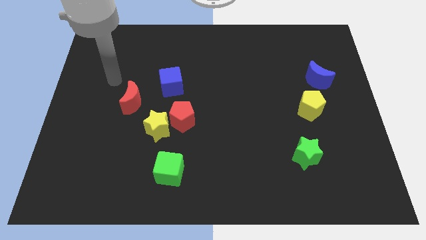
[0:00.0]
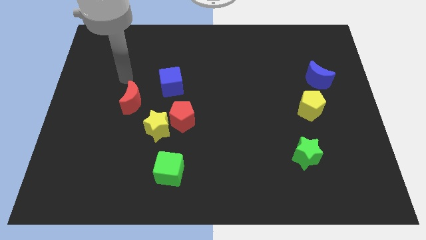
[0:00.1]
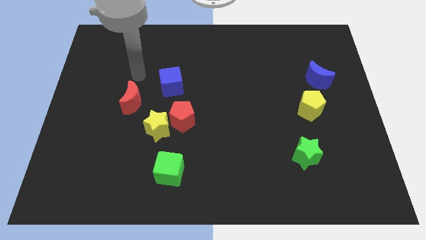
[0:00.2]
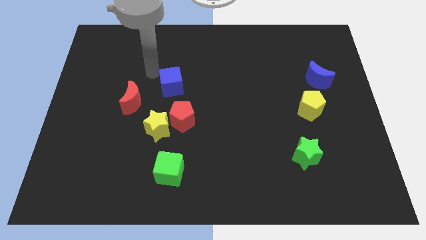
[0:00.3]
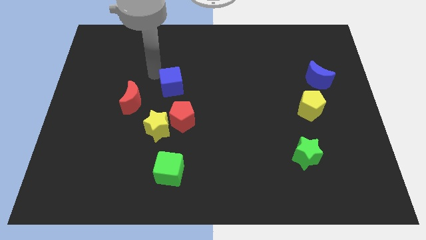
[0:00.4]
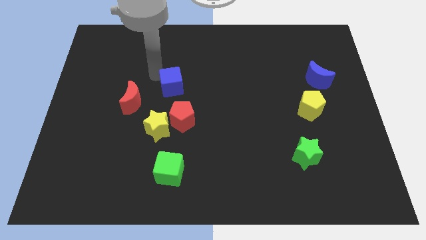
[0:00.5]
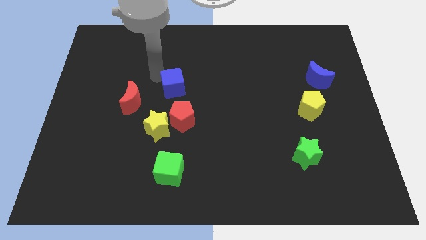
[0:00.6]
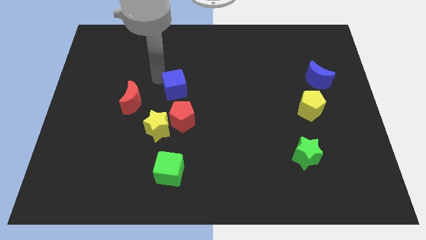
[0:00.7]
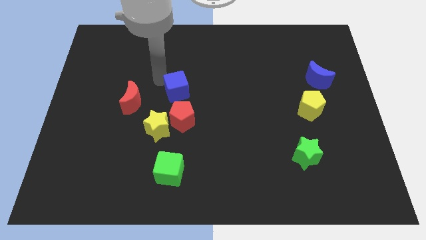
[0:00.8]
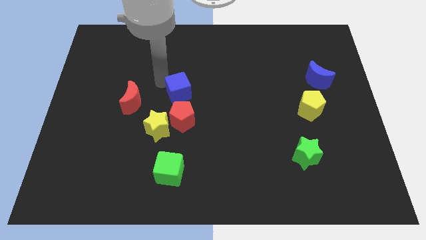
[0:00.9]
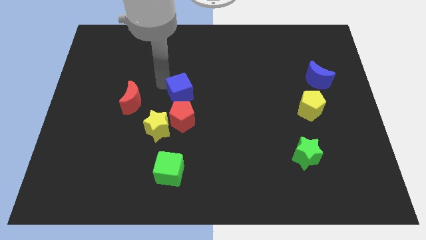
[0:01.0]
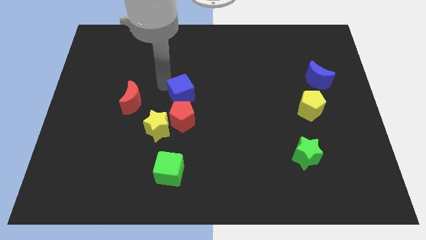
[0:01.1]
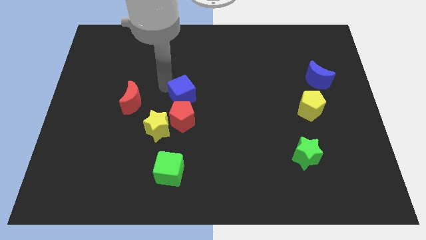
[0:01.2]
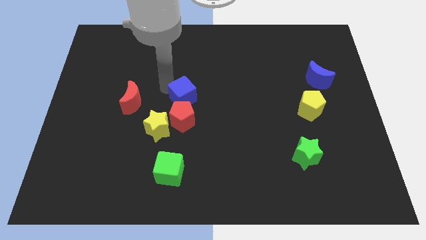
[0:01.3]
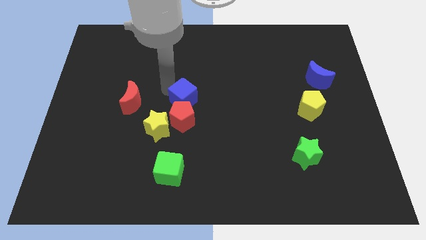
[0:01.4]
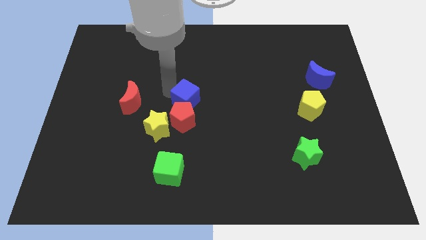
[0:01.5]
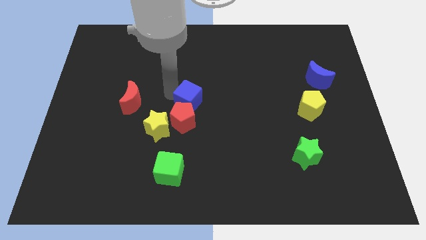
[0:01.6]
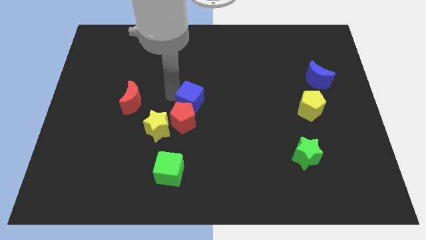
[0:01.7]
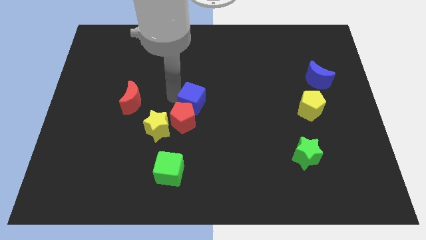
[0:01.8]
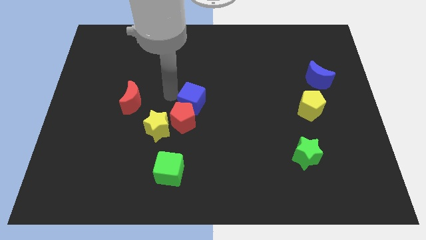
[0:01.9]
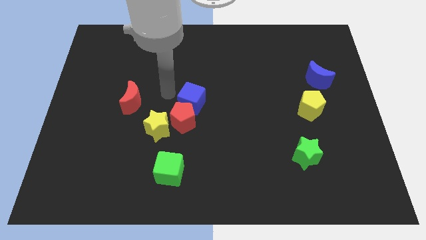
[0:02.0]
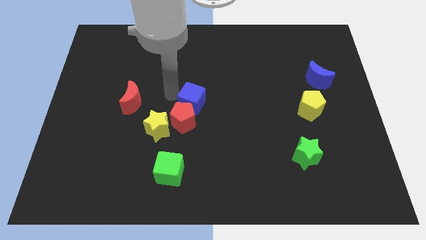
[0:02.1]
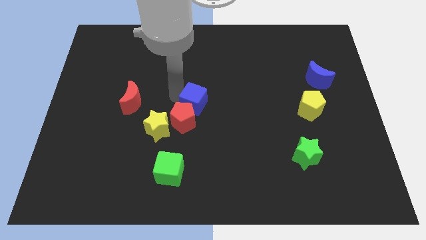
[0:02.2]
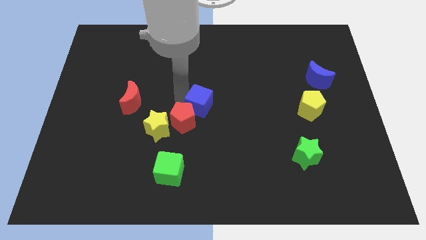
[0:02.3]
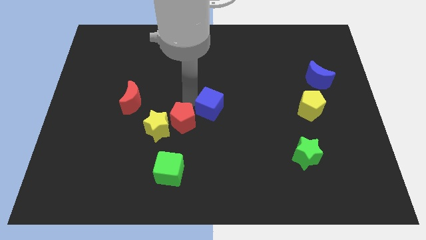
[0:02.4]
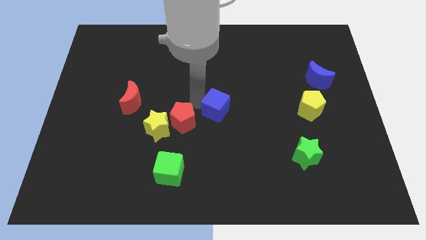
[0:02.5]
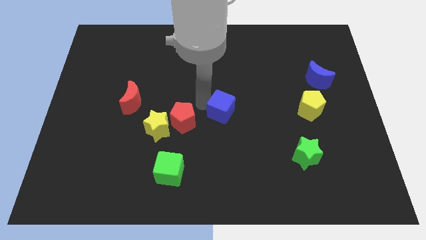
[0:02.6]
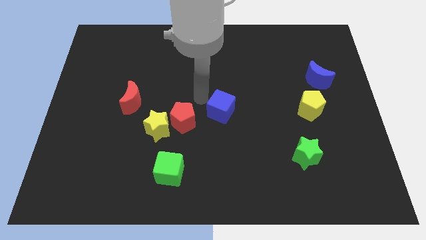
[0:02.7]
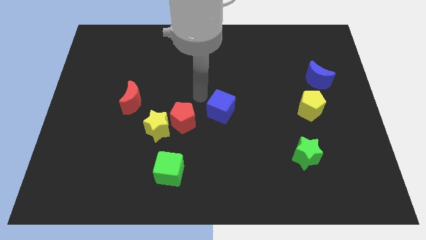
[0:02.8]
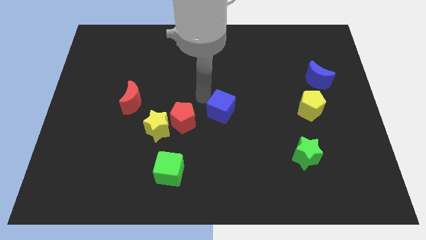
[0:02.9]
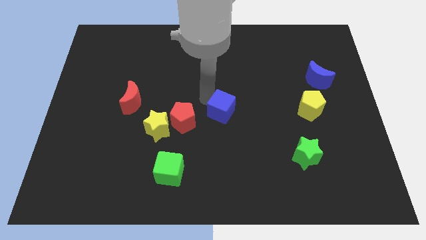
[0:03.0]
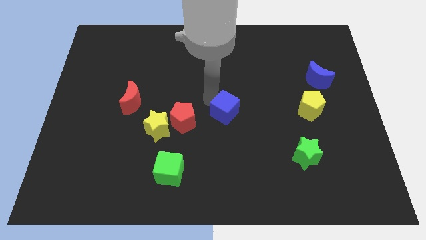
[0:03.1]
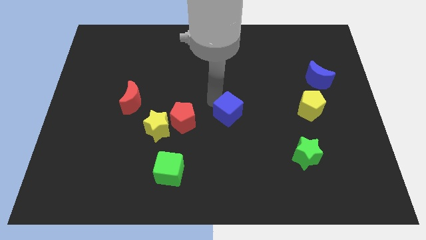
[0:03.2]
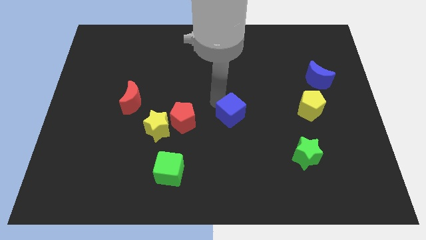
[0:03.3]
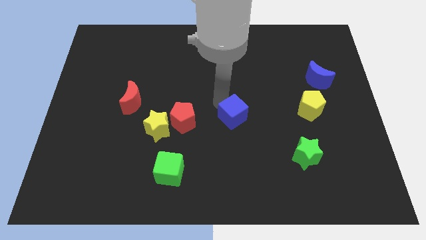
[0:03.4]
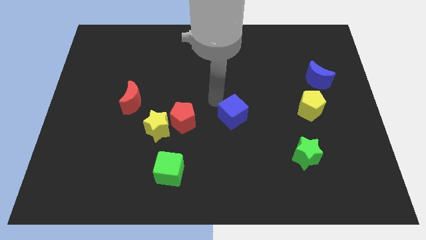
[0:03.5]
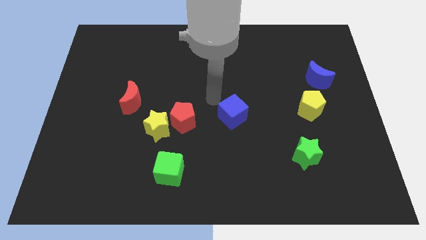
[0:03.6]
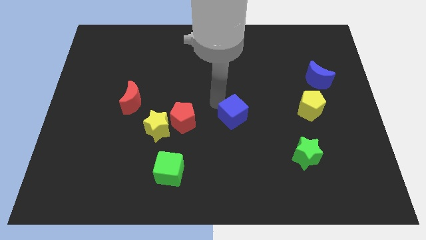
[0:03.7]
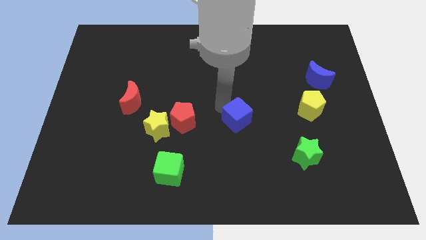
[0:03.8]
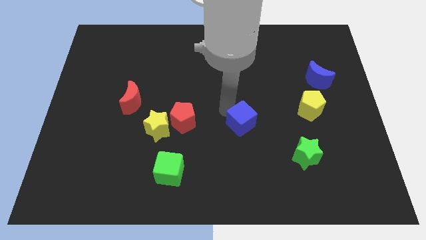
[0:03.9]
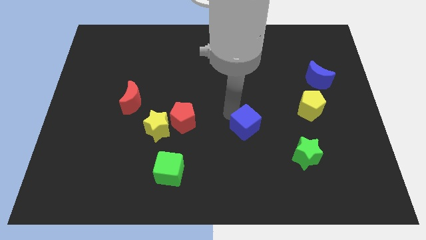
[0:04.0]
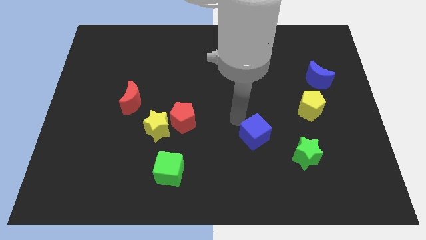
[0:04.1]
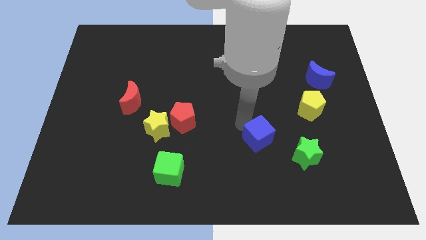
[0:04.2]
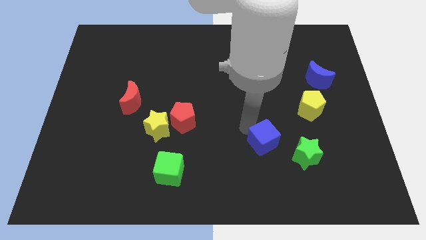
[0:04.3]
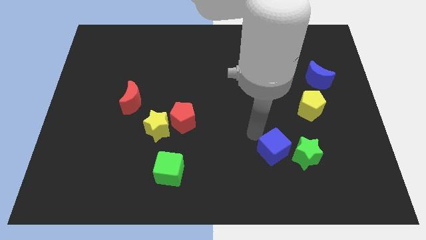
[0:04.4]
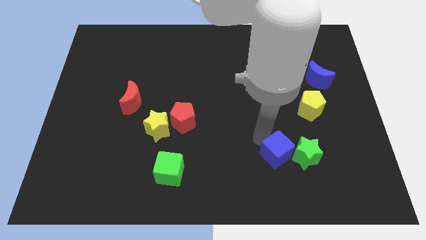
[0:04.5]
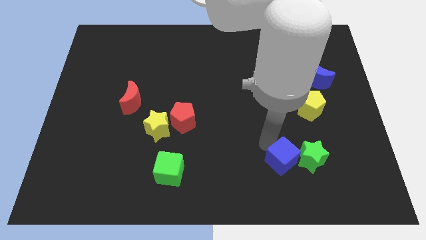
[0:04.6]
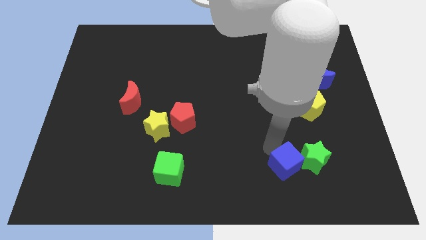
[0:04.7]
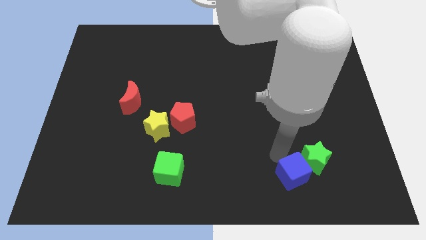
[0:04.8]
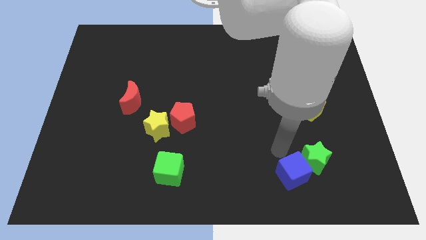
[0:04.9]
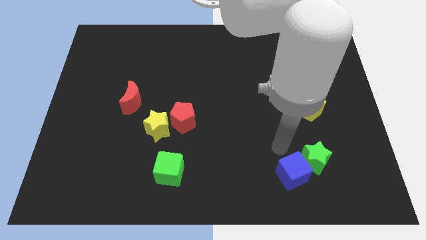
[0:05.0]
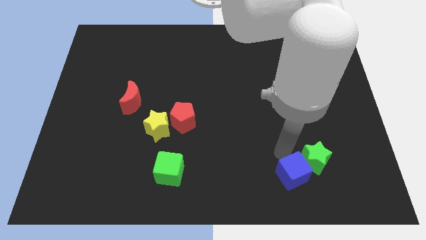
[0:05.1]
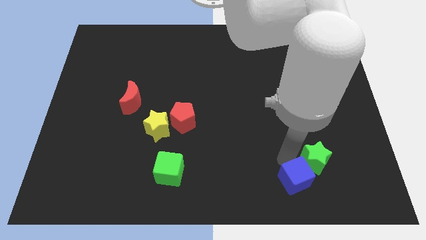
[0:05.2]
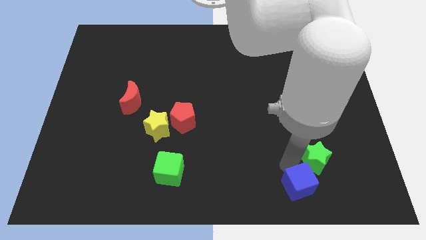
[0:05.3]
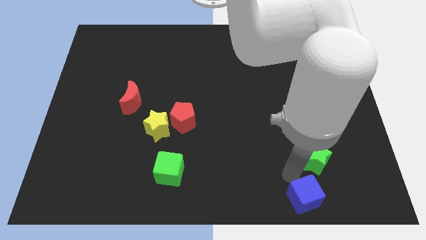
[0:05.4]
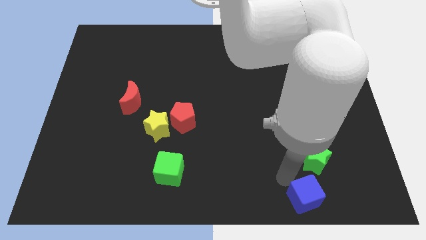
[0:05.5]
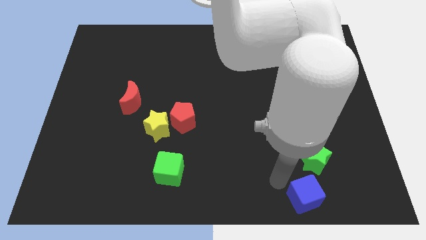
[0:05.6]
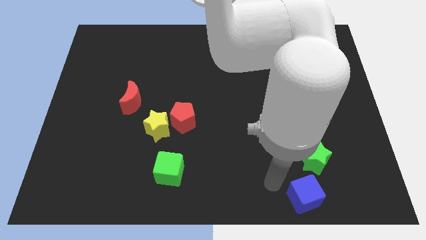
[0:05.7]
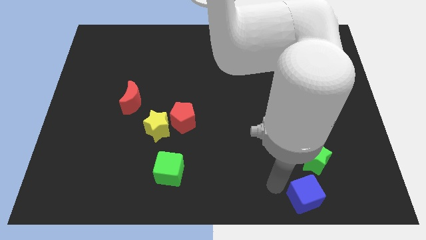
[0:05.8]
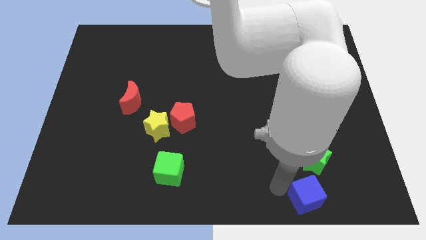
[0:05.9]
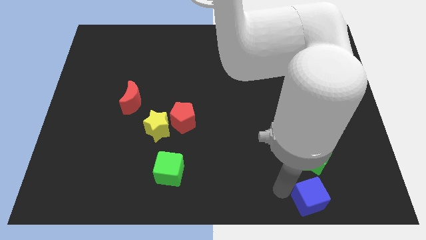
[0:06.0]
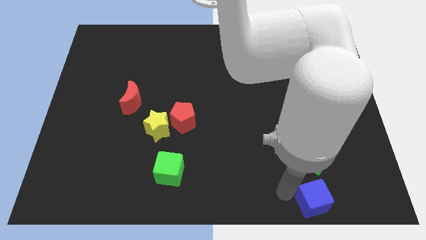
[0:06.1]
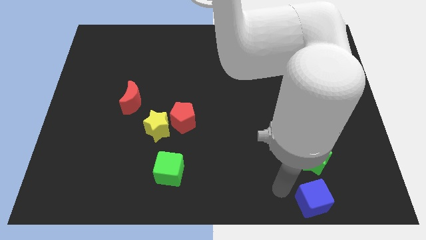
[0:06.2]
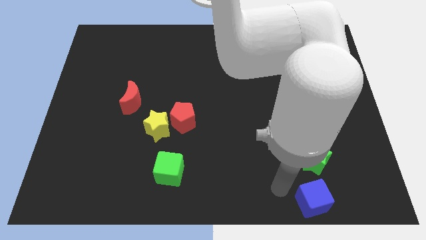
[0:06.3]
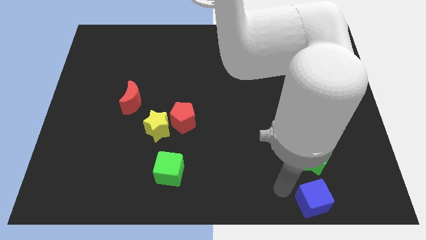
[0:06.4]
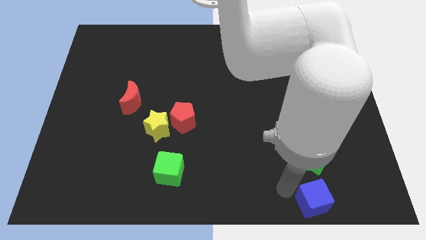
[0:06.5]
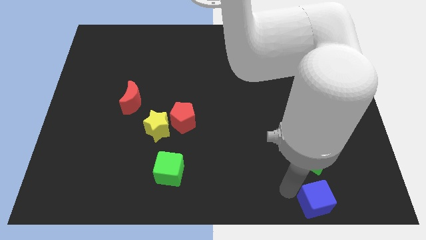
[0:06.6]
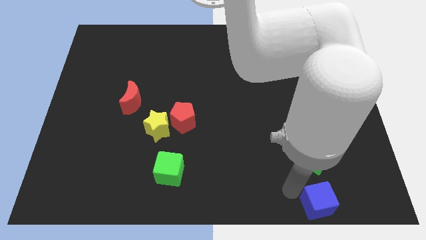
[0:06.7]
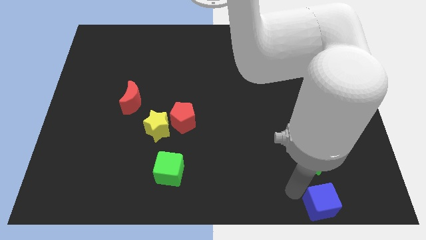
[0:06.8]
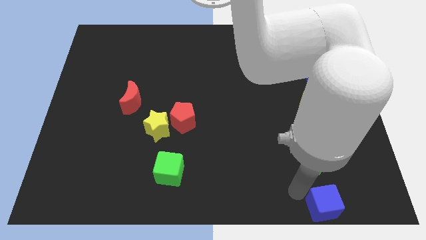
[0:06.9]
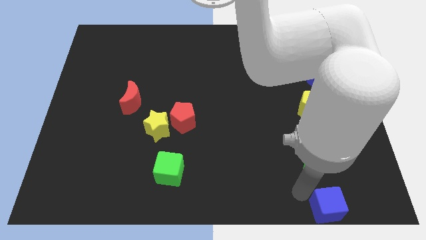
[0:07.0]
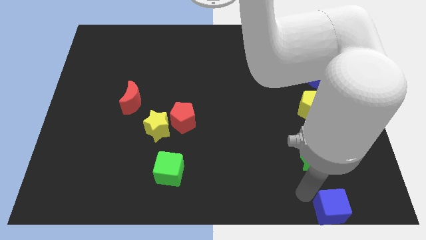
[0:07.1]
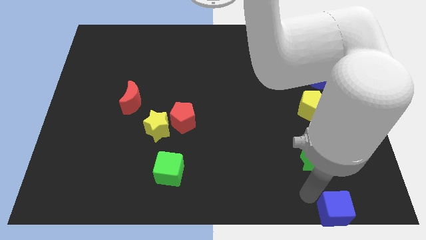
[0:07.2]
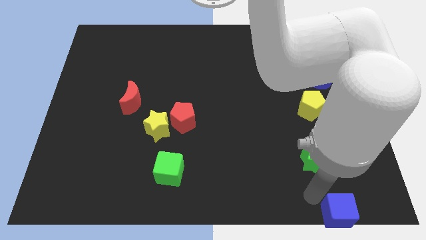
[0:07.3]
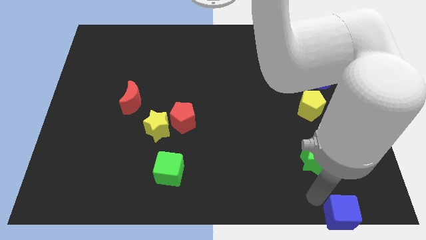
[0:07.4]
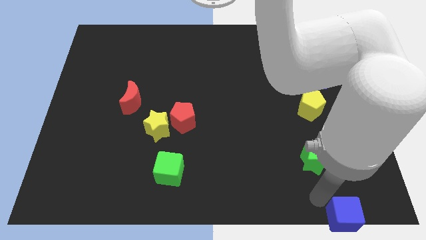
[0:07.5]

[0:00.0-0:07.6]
push the blue cube to the lower right corner

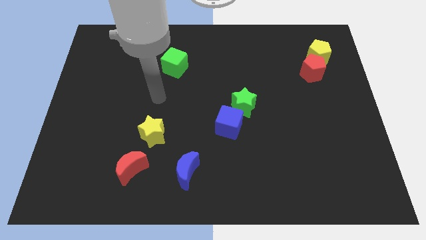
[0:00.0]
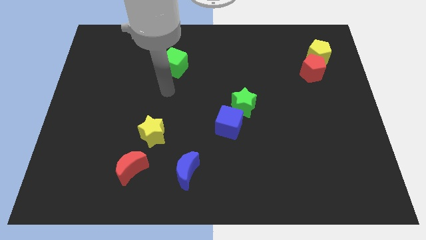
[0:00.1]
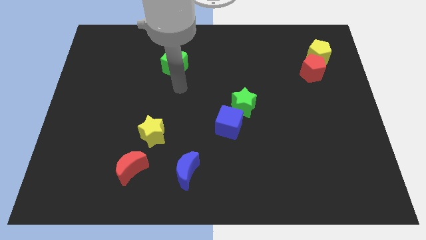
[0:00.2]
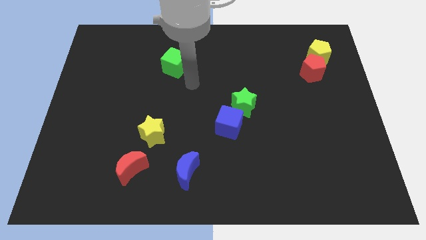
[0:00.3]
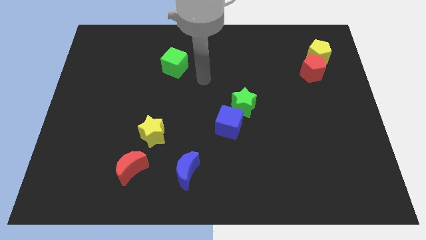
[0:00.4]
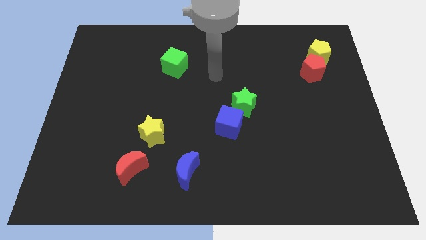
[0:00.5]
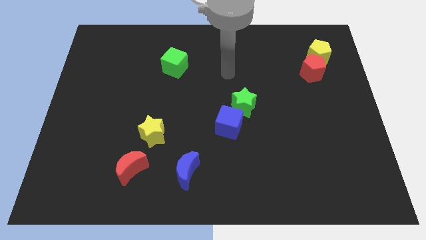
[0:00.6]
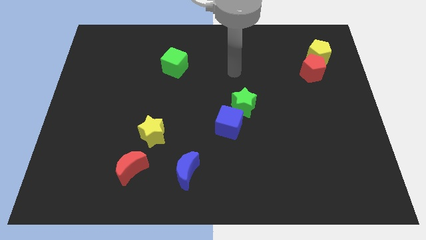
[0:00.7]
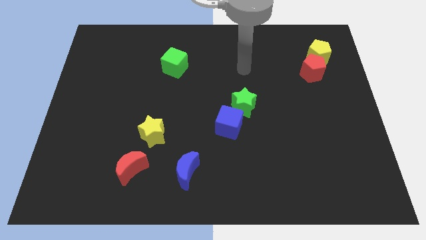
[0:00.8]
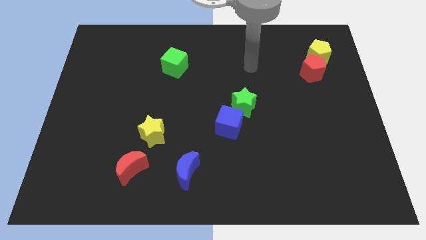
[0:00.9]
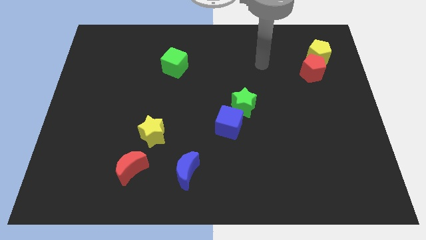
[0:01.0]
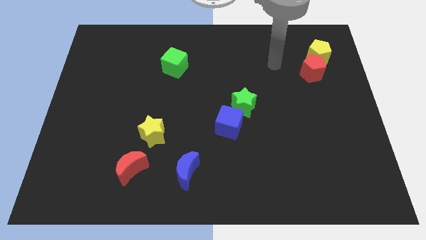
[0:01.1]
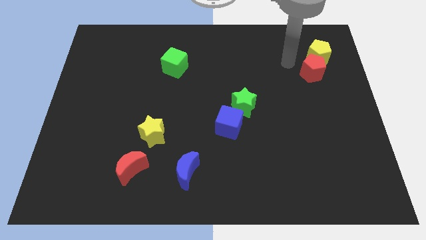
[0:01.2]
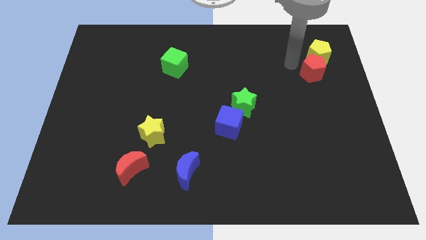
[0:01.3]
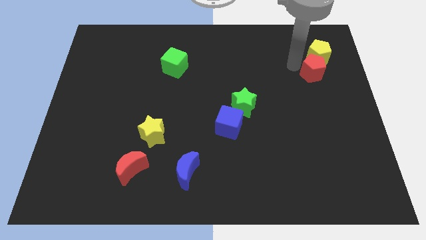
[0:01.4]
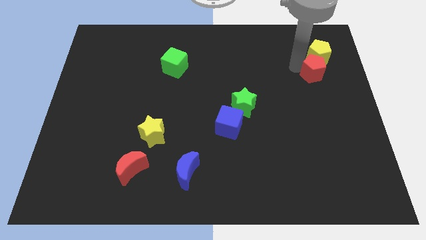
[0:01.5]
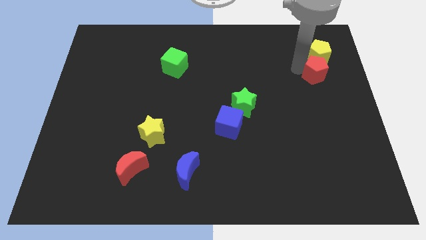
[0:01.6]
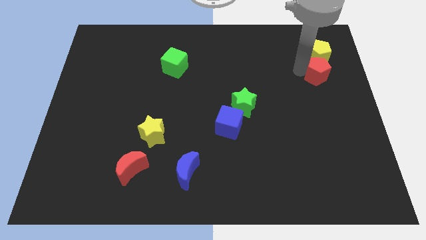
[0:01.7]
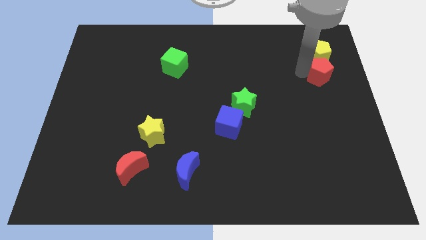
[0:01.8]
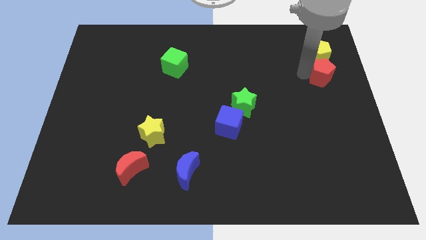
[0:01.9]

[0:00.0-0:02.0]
push the red pentagon to the center right
